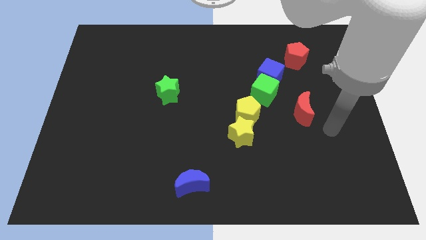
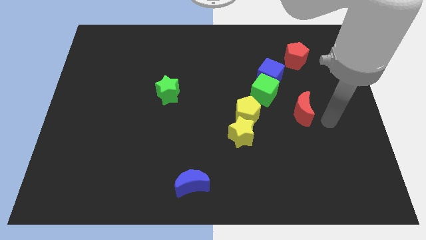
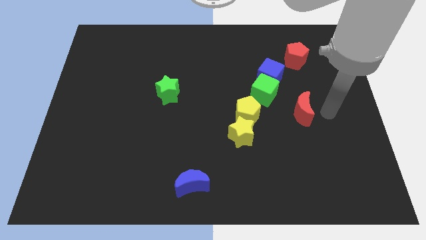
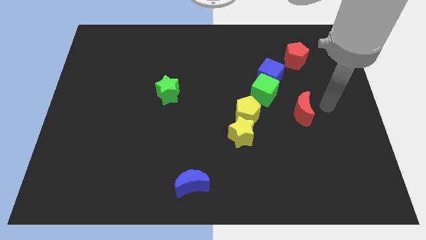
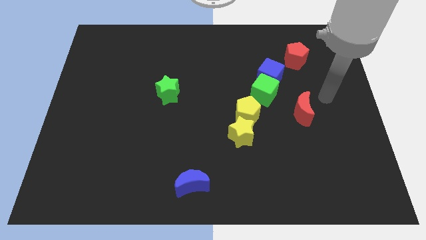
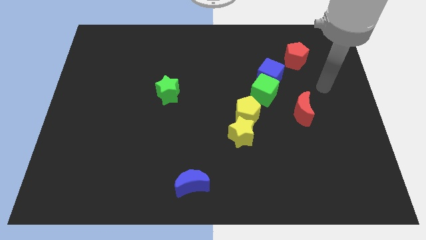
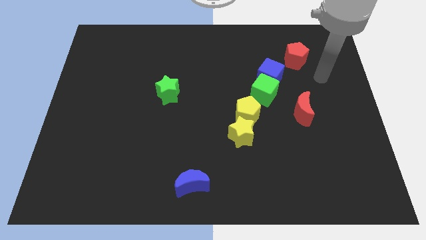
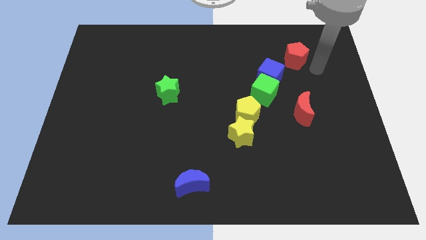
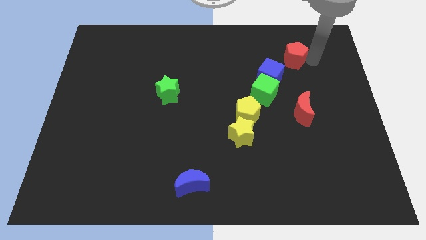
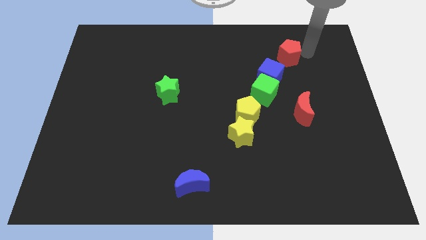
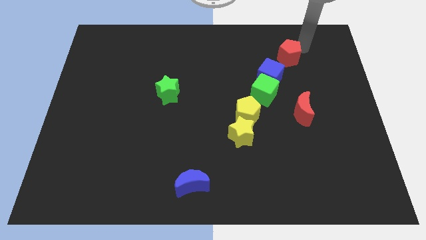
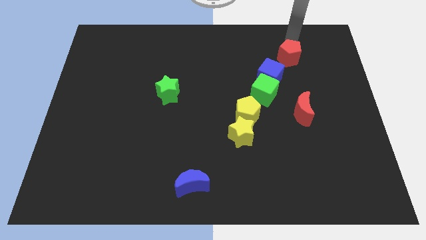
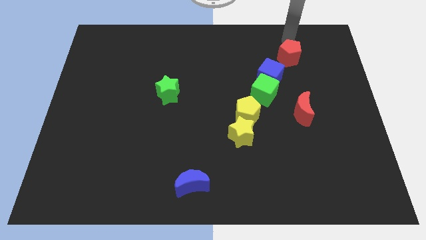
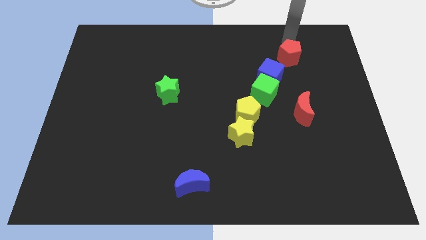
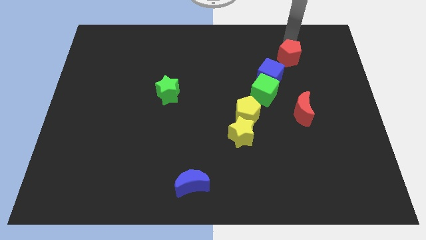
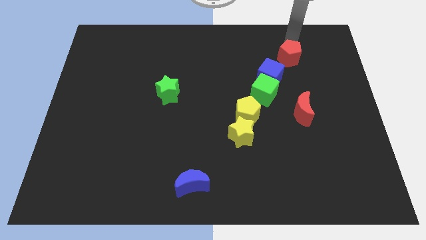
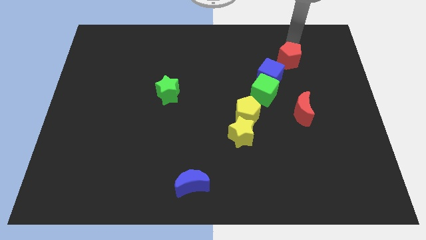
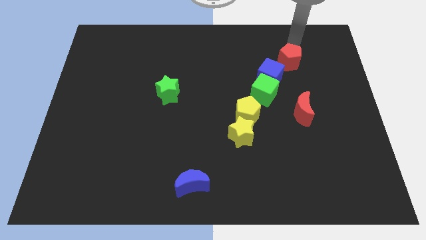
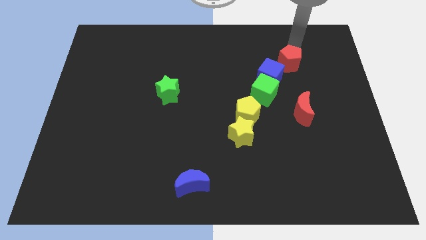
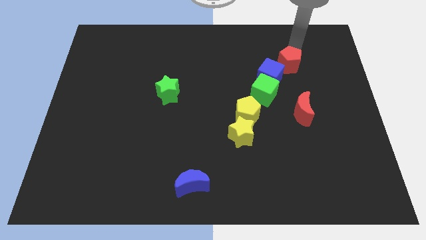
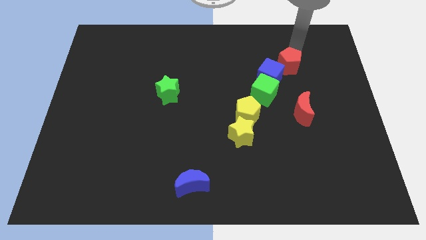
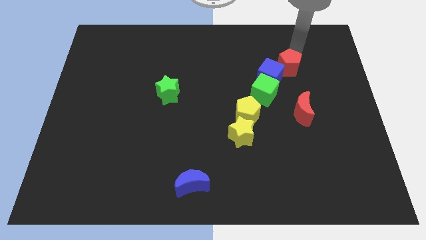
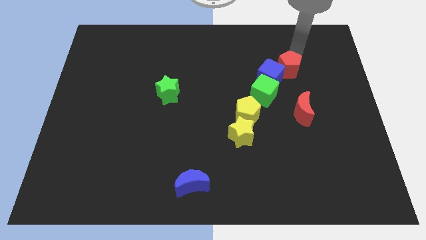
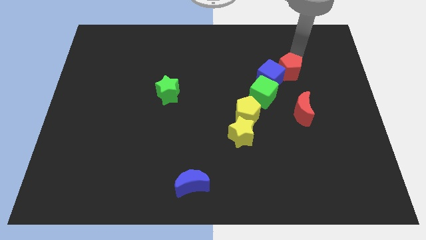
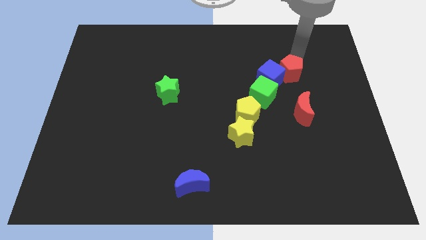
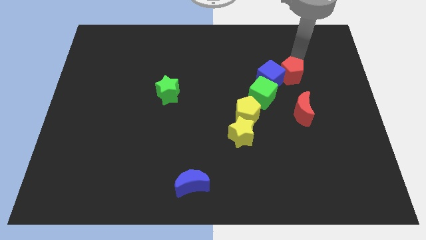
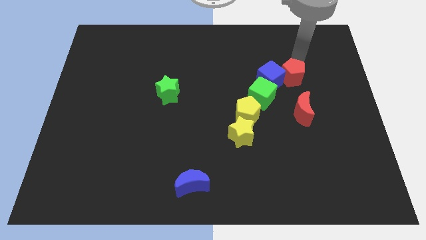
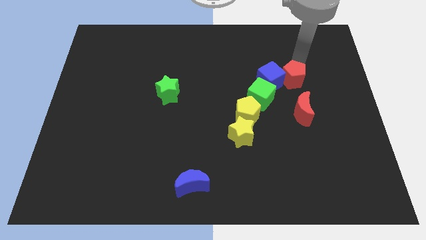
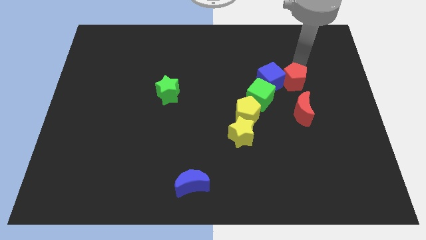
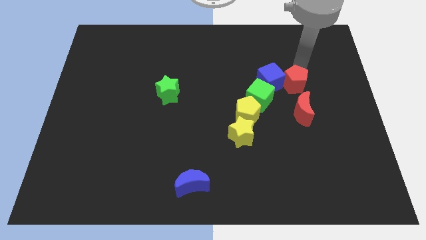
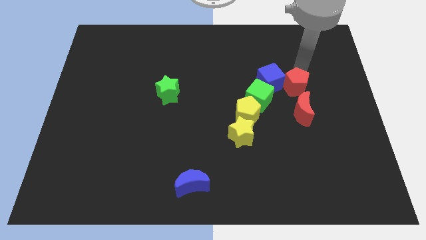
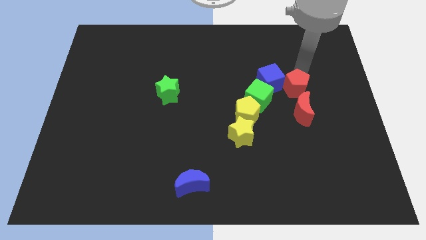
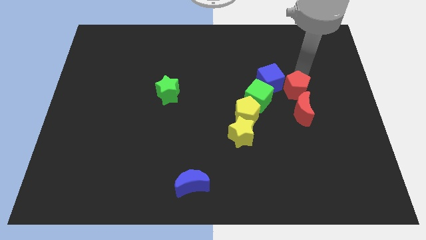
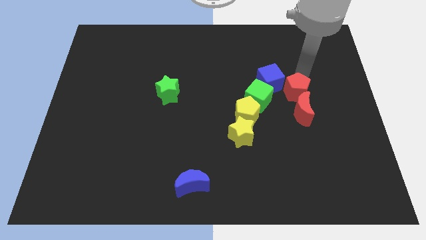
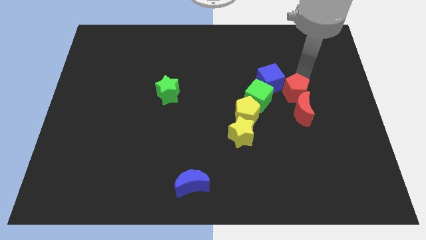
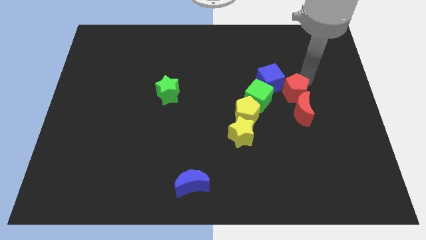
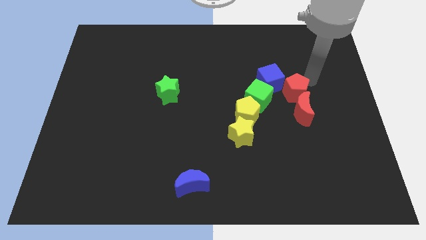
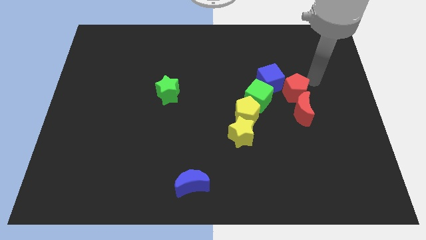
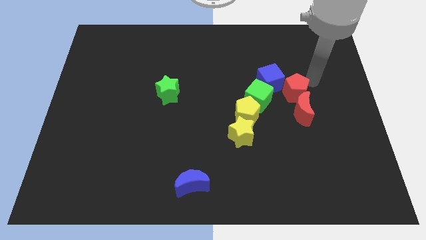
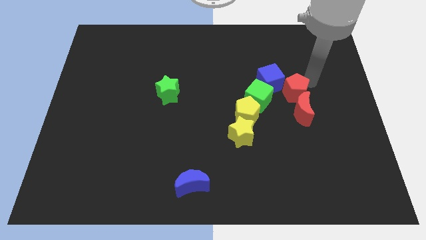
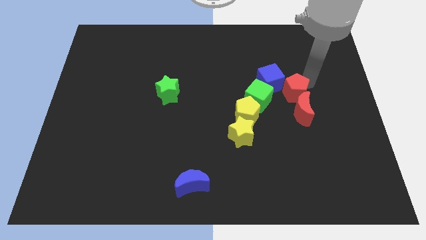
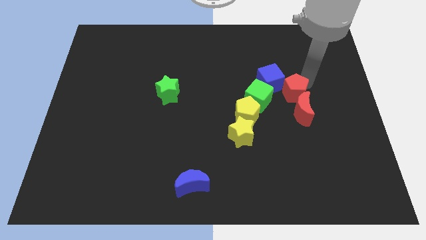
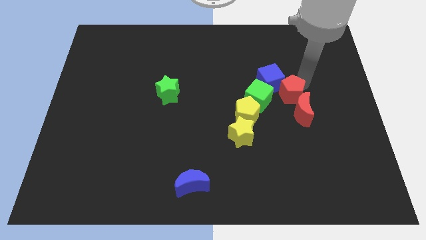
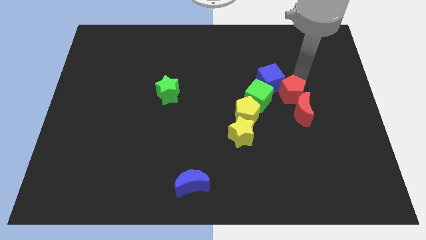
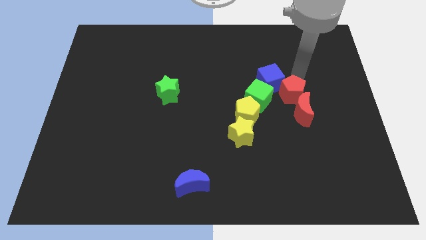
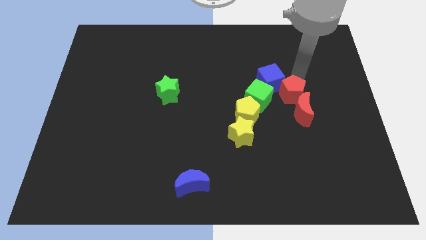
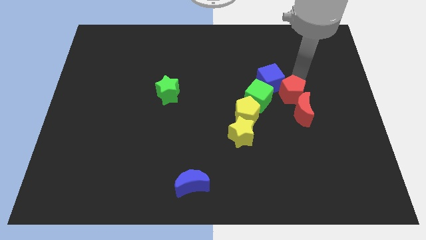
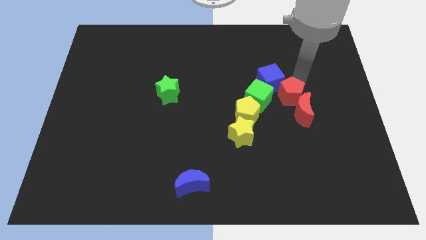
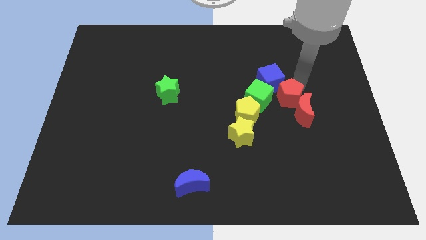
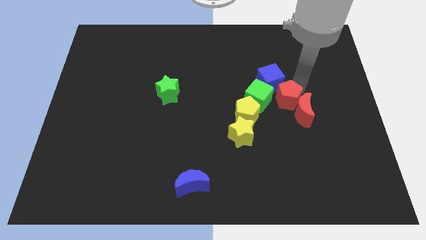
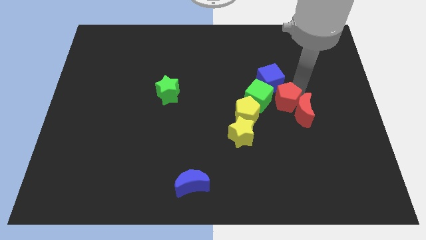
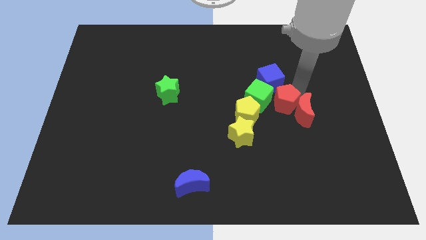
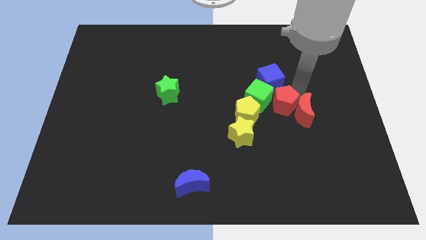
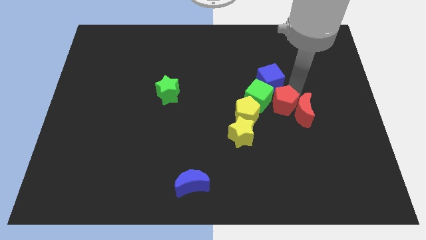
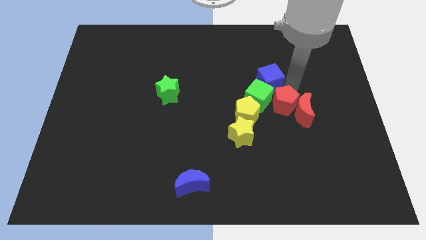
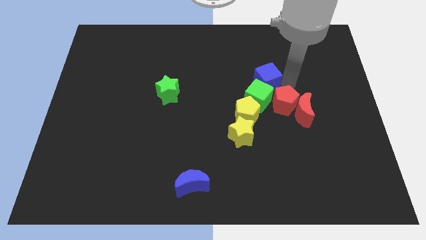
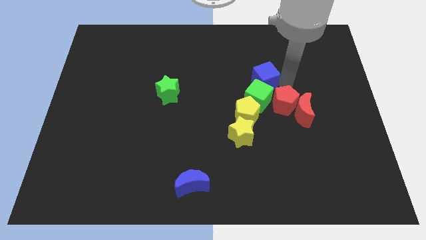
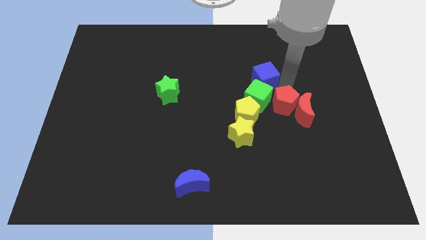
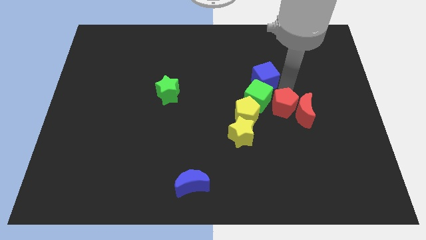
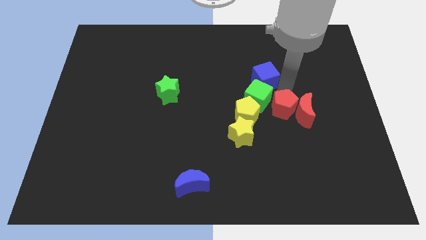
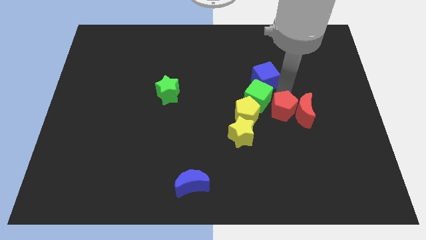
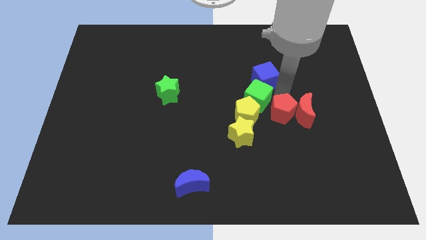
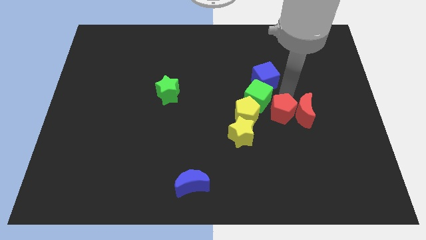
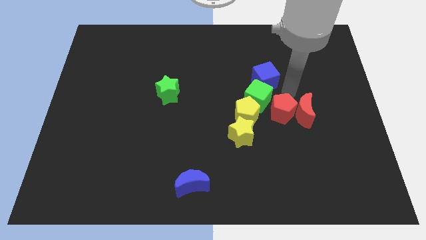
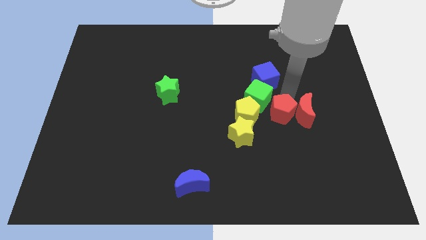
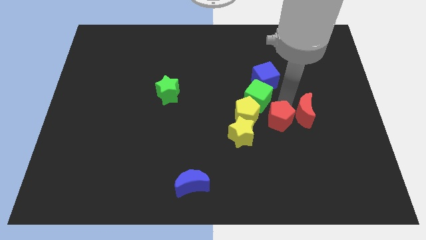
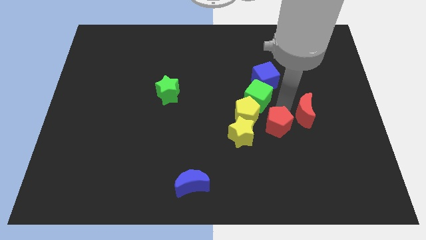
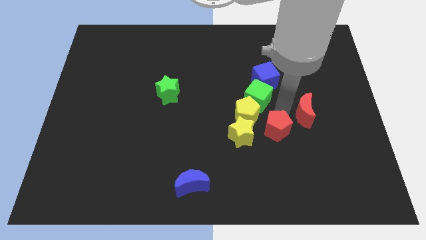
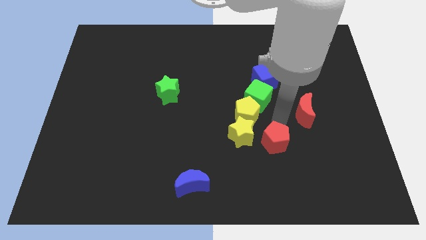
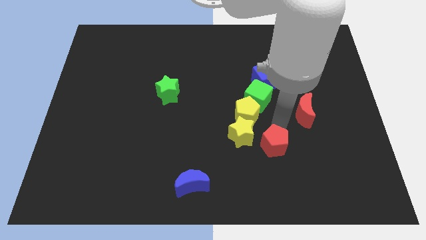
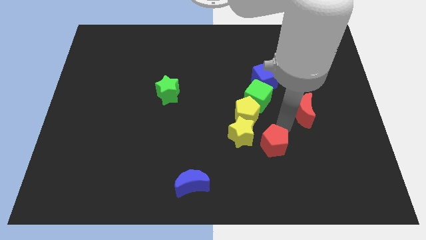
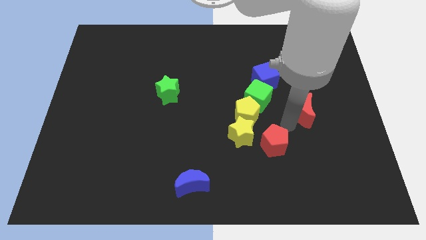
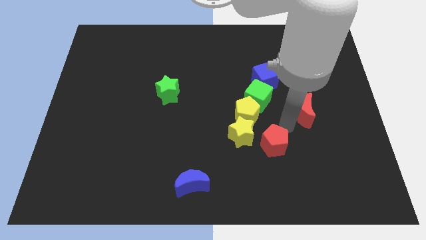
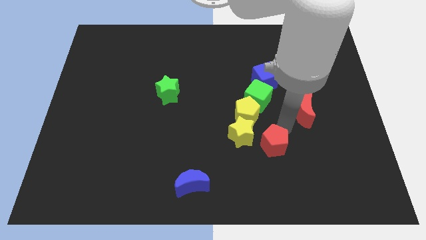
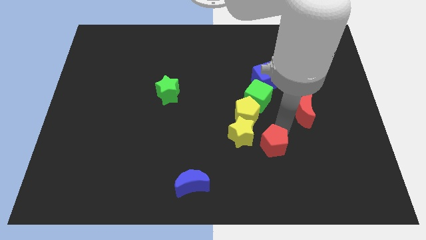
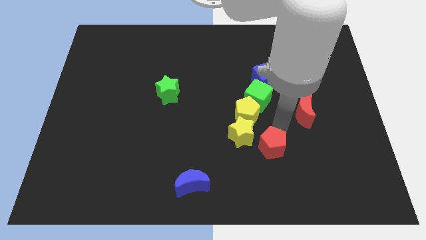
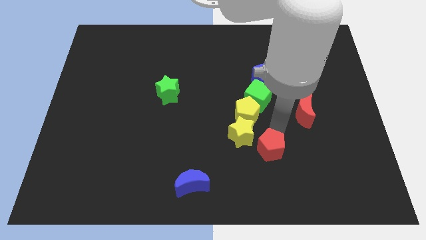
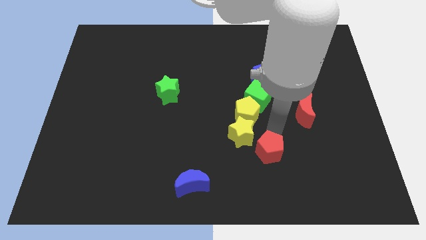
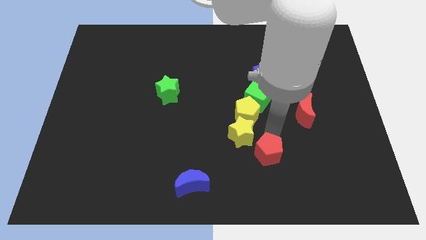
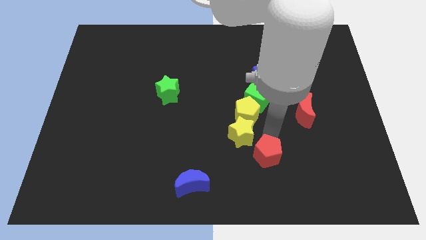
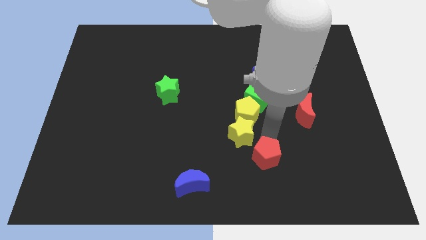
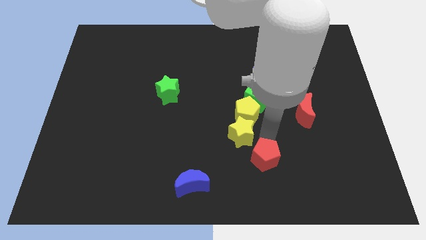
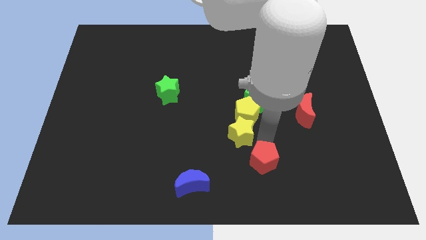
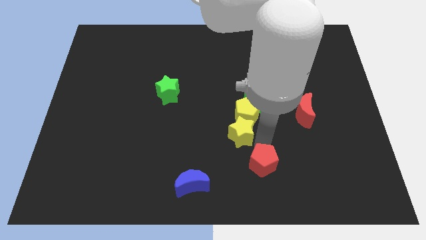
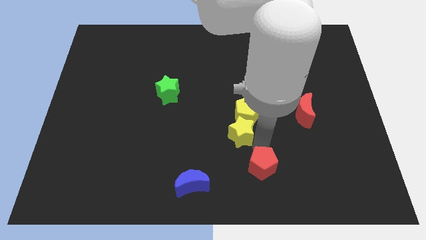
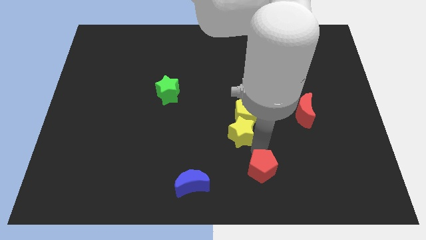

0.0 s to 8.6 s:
push the red pentagon to the bottom
